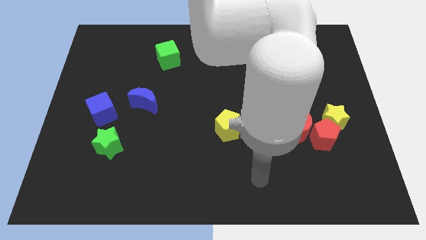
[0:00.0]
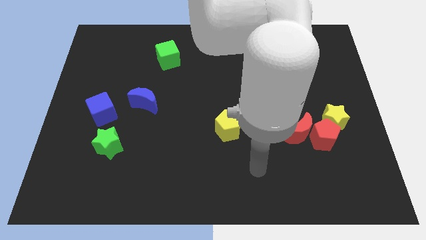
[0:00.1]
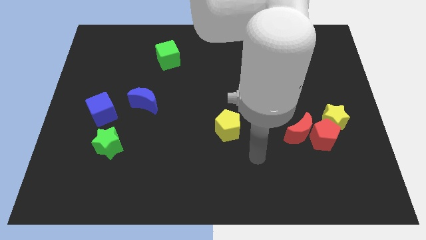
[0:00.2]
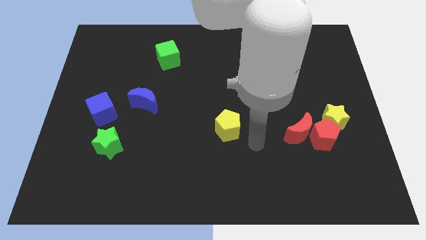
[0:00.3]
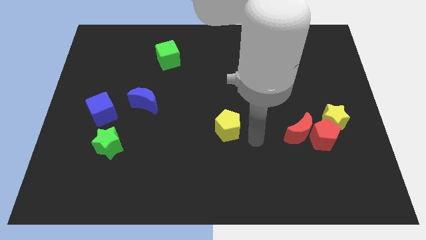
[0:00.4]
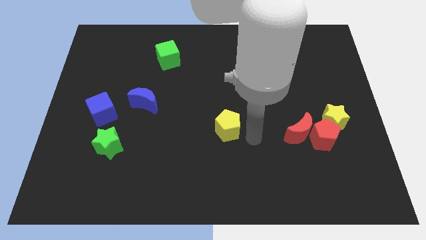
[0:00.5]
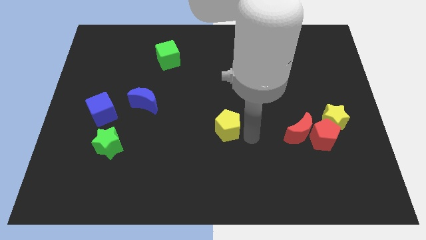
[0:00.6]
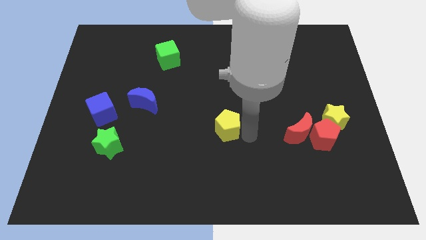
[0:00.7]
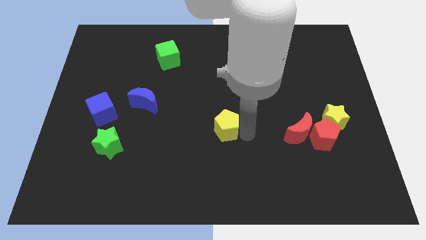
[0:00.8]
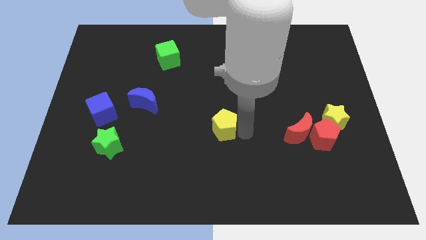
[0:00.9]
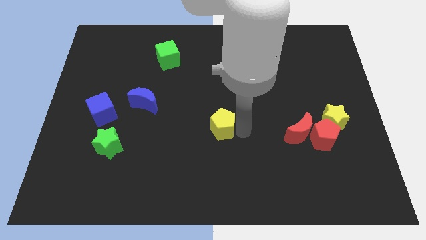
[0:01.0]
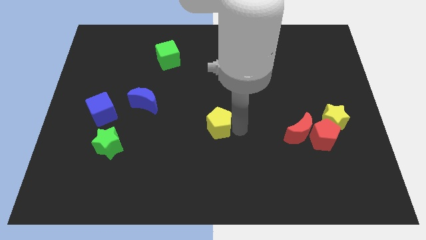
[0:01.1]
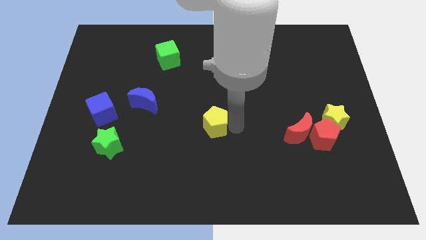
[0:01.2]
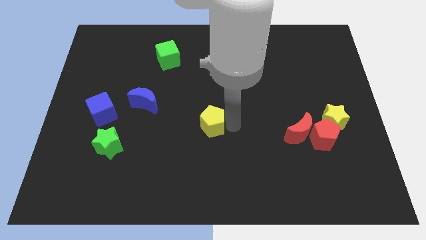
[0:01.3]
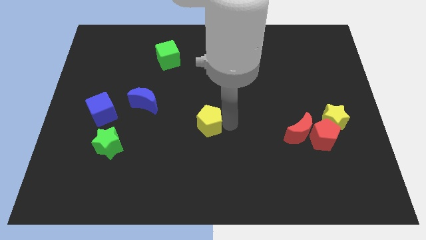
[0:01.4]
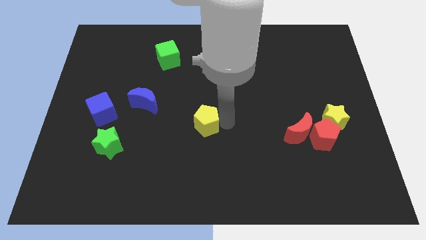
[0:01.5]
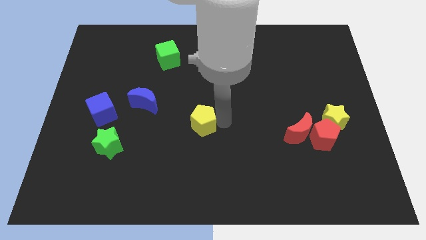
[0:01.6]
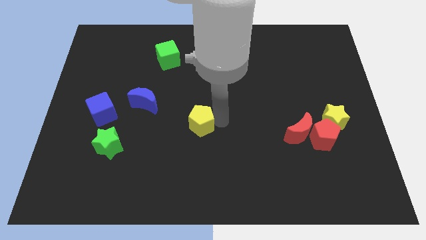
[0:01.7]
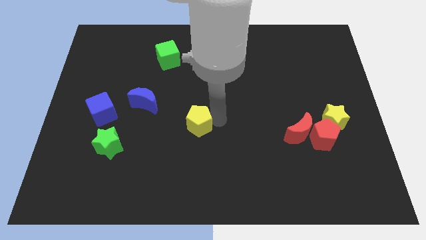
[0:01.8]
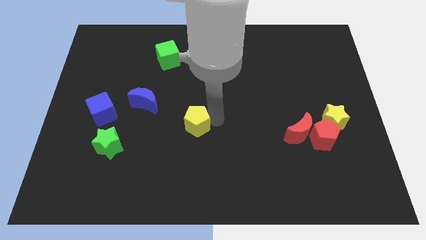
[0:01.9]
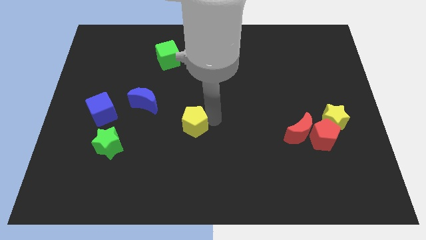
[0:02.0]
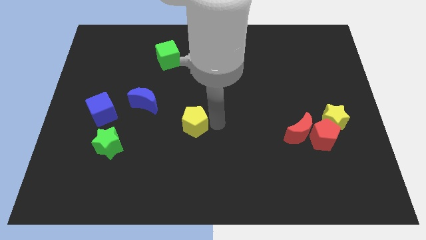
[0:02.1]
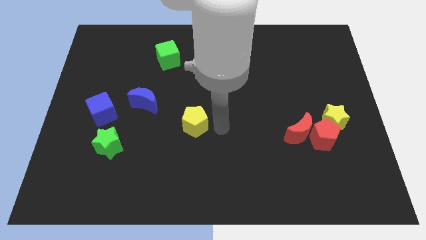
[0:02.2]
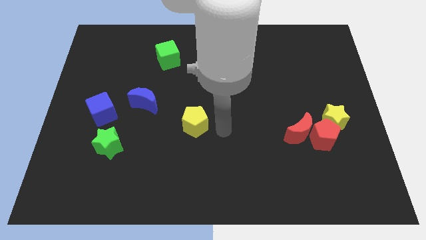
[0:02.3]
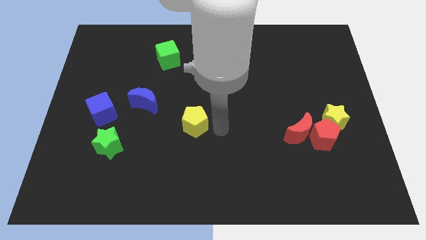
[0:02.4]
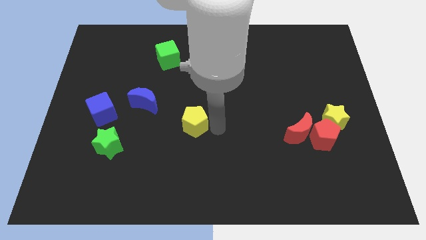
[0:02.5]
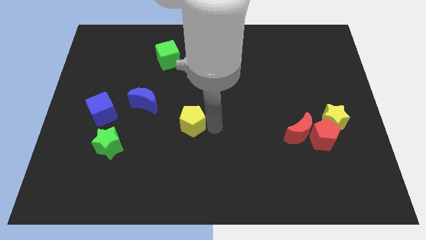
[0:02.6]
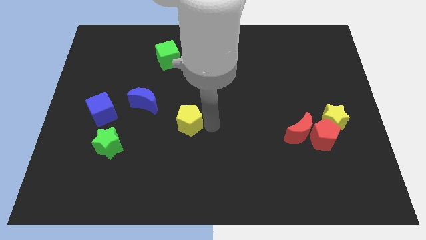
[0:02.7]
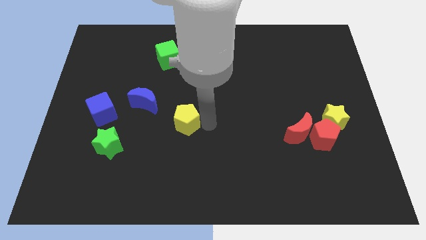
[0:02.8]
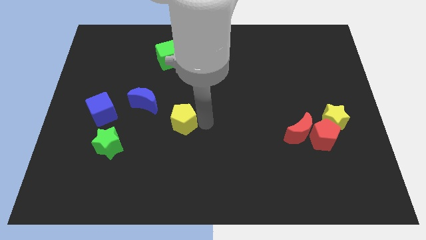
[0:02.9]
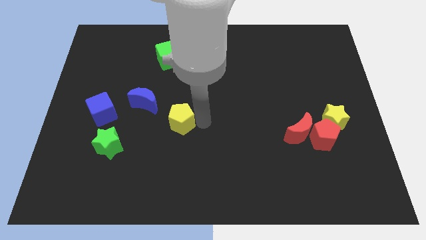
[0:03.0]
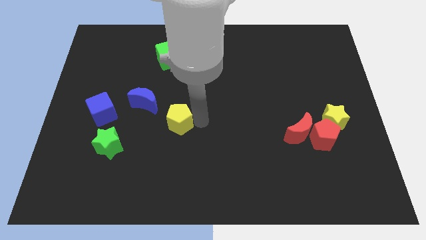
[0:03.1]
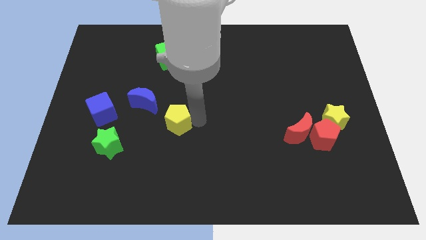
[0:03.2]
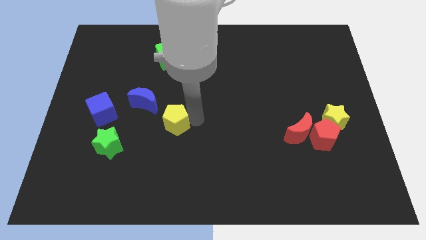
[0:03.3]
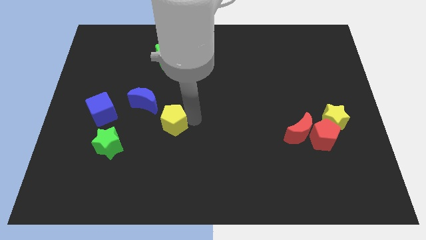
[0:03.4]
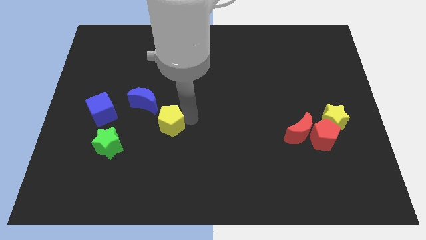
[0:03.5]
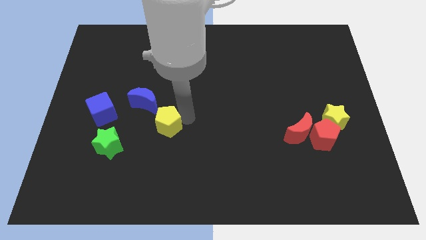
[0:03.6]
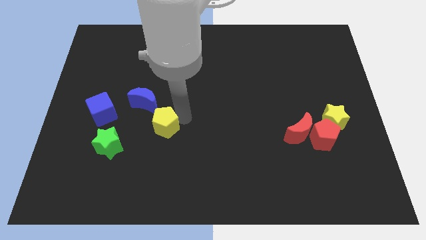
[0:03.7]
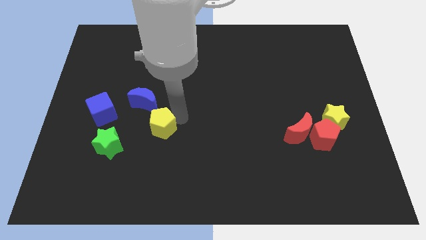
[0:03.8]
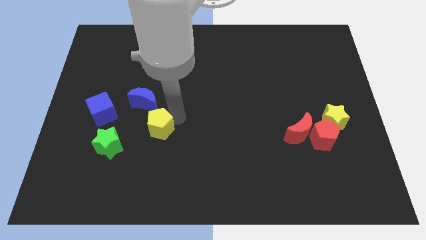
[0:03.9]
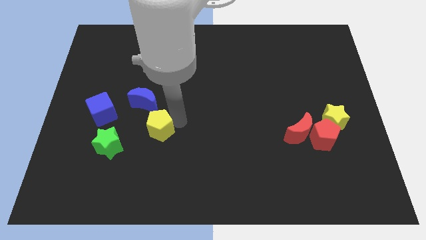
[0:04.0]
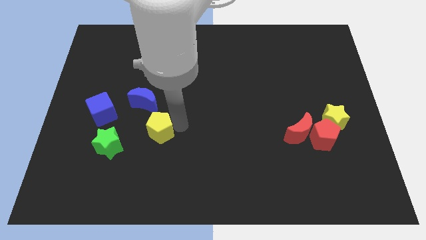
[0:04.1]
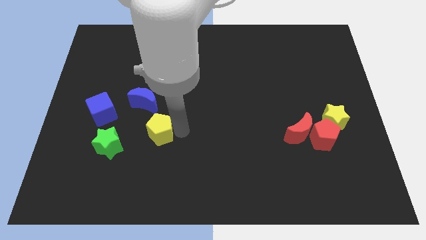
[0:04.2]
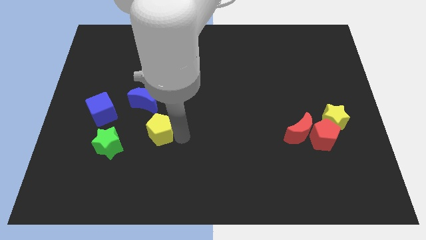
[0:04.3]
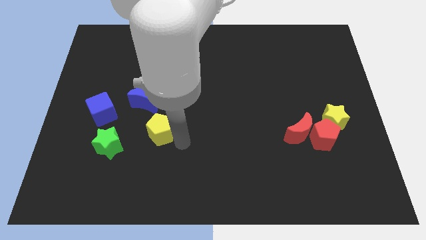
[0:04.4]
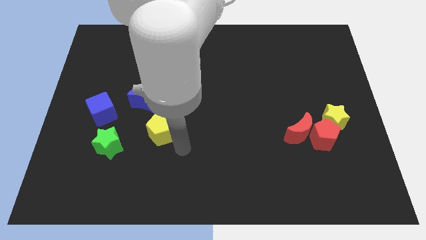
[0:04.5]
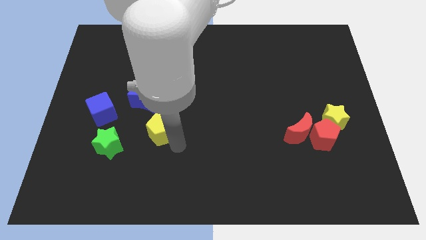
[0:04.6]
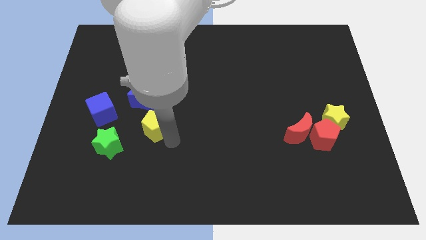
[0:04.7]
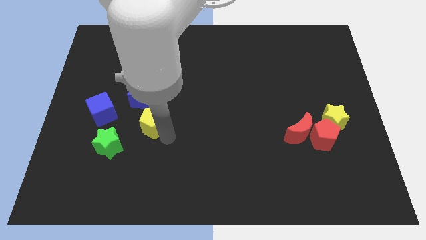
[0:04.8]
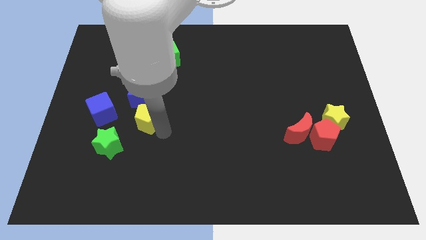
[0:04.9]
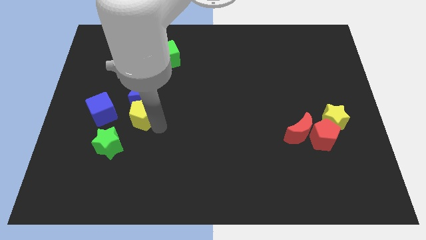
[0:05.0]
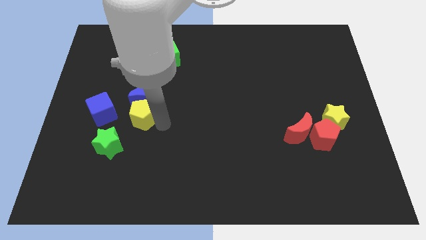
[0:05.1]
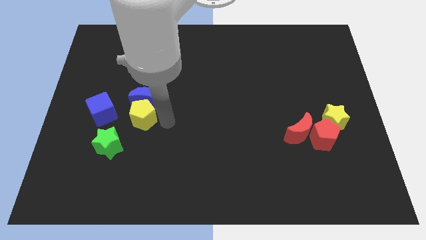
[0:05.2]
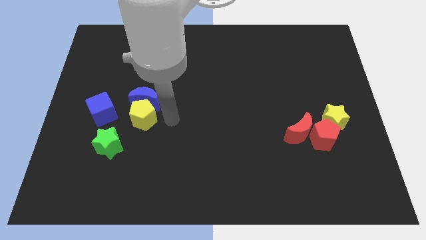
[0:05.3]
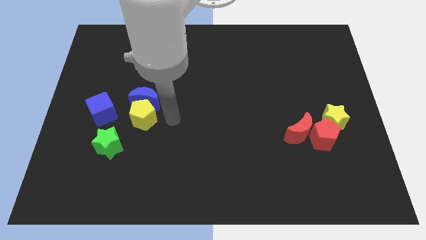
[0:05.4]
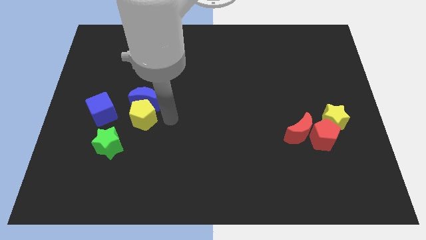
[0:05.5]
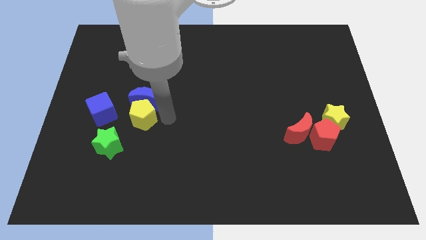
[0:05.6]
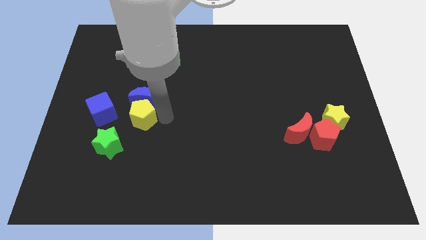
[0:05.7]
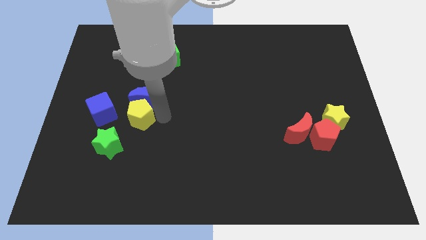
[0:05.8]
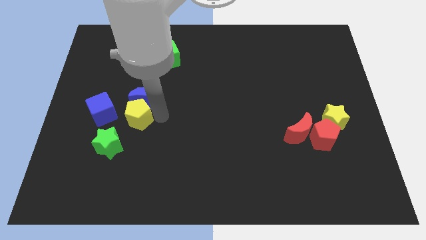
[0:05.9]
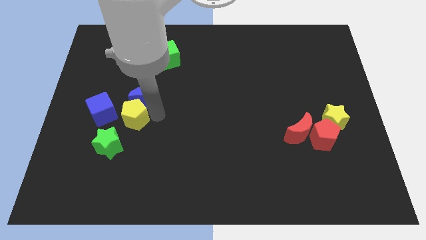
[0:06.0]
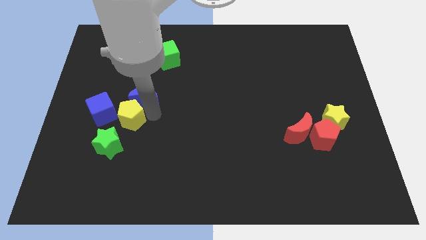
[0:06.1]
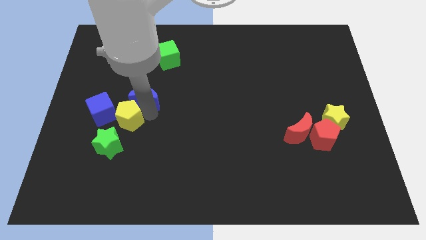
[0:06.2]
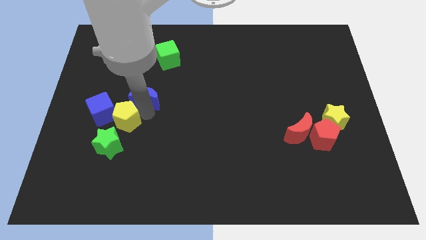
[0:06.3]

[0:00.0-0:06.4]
move the yellow pentagon to the blue cube

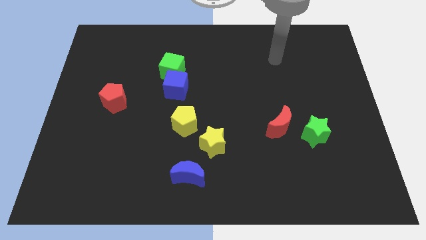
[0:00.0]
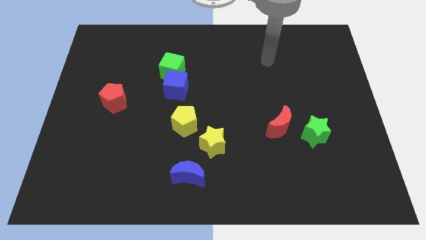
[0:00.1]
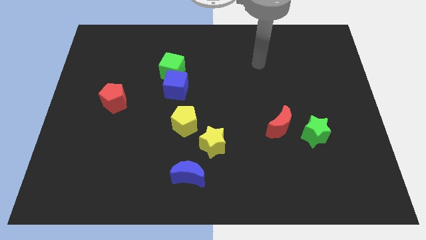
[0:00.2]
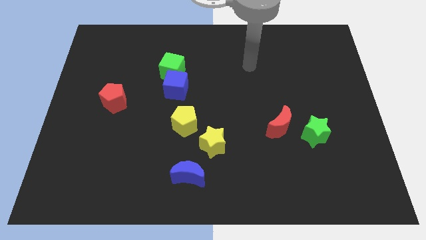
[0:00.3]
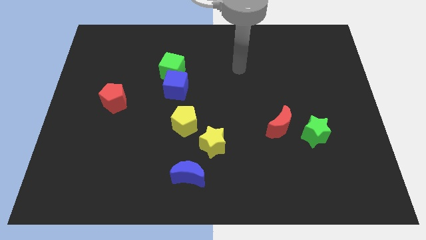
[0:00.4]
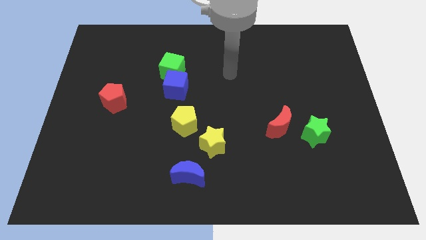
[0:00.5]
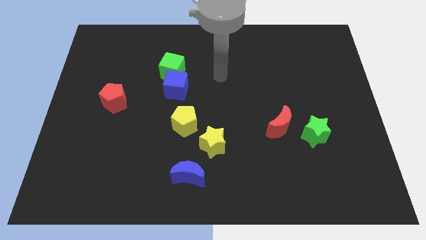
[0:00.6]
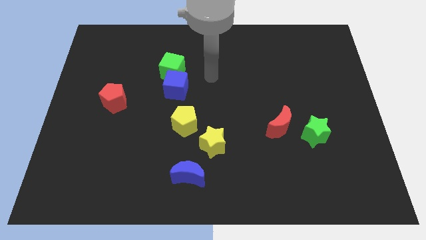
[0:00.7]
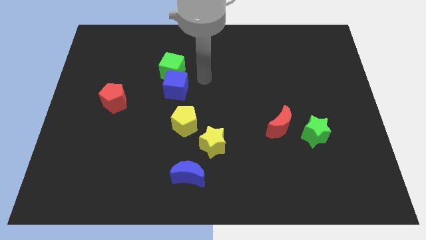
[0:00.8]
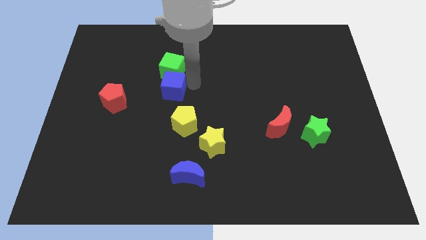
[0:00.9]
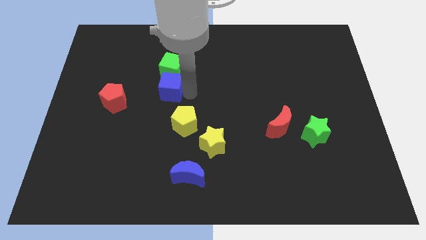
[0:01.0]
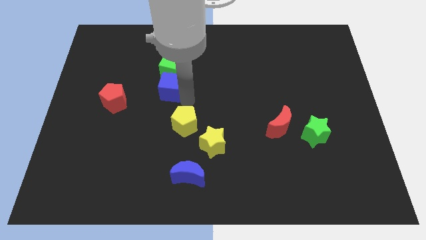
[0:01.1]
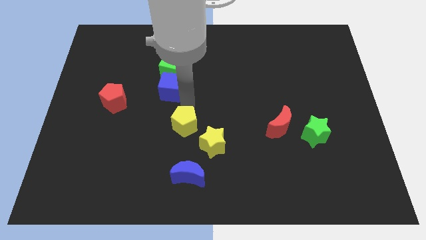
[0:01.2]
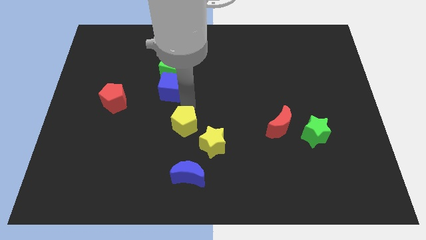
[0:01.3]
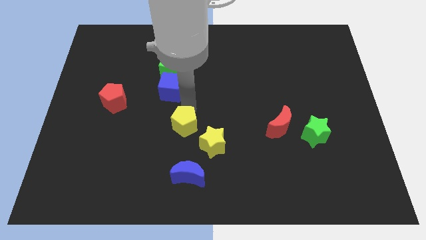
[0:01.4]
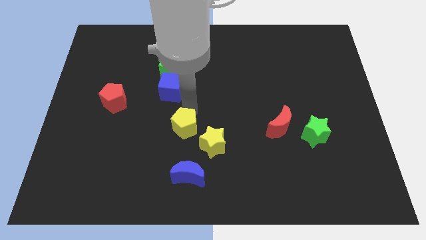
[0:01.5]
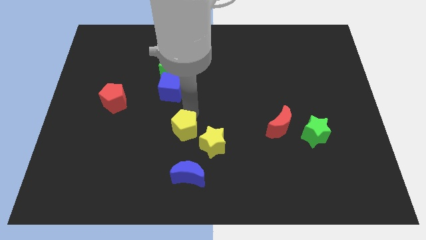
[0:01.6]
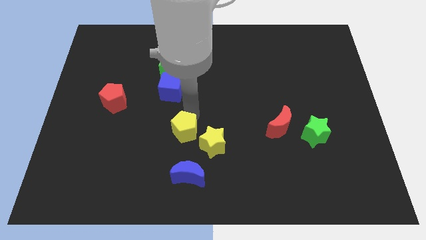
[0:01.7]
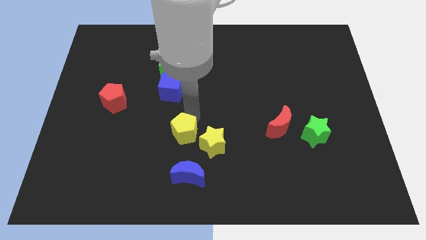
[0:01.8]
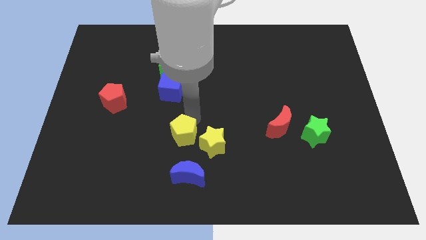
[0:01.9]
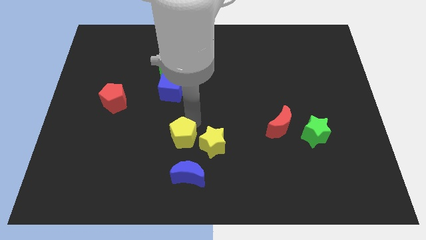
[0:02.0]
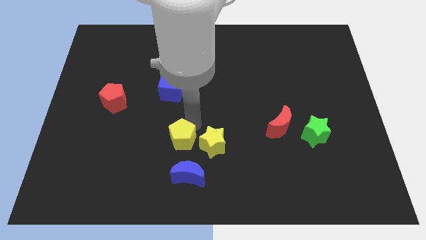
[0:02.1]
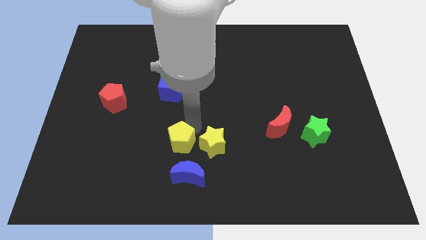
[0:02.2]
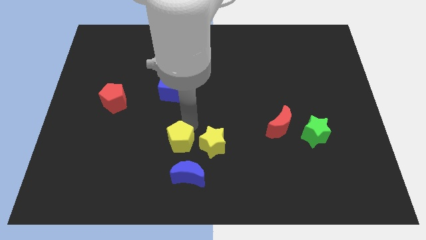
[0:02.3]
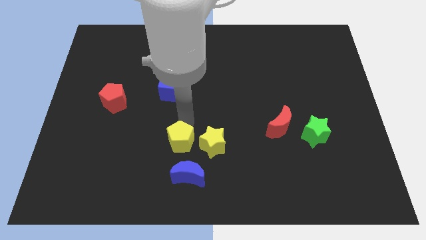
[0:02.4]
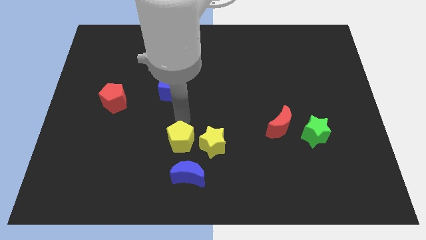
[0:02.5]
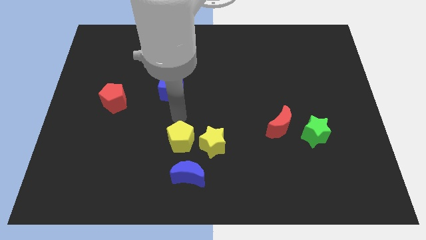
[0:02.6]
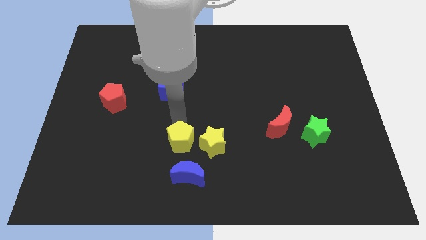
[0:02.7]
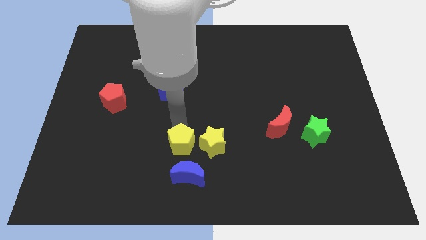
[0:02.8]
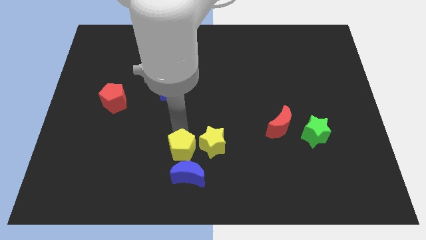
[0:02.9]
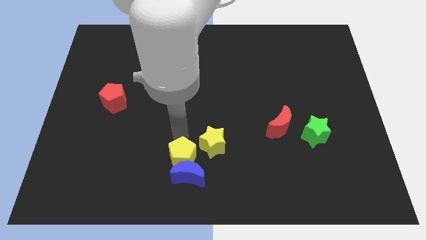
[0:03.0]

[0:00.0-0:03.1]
slide the yellow pentagon towards the blue moon
